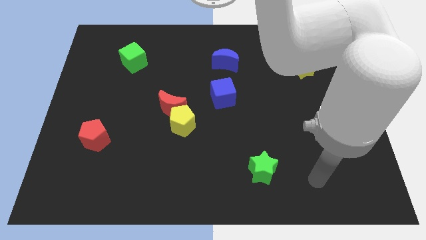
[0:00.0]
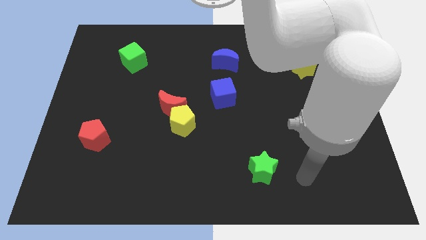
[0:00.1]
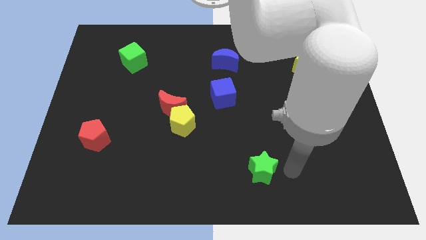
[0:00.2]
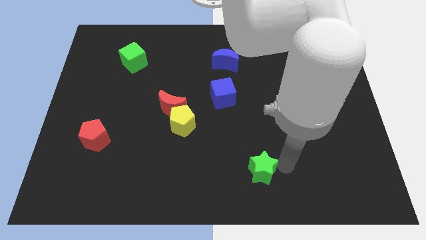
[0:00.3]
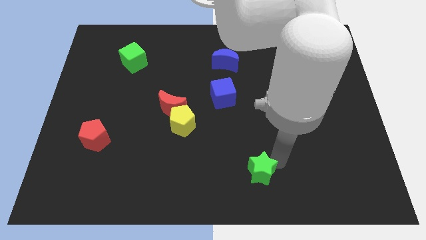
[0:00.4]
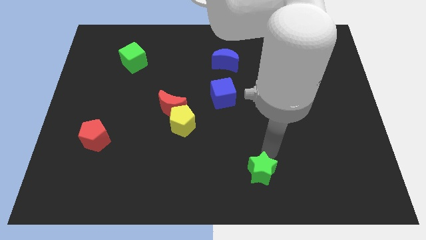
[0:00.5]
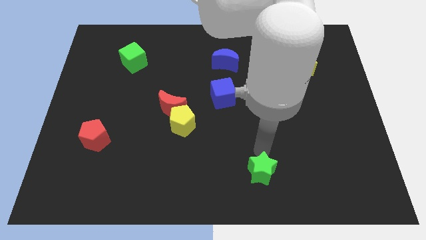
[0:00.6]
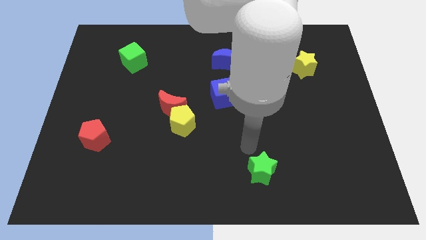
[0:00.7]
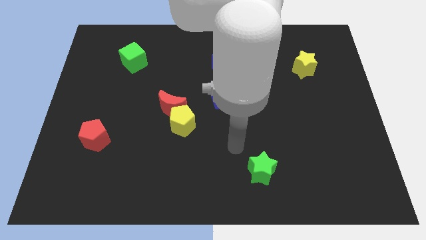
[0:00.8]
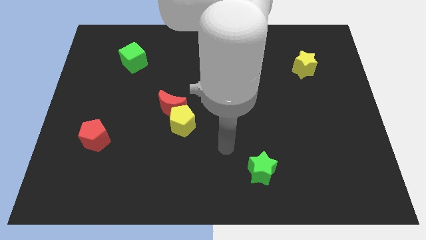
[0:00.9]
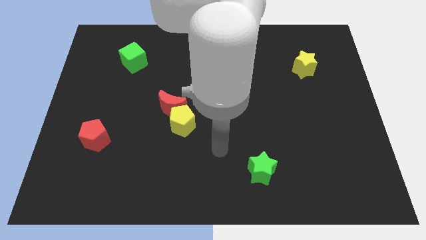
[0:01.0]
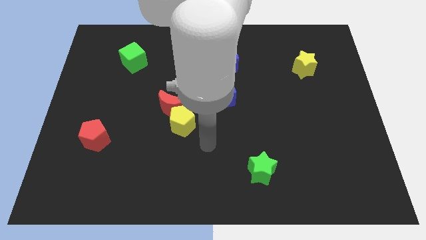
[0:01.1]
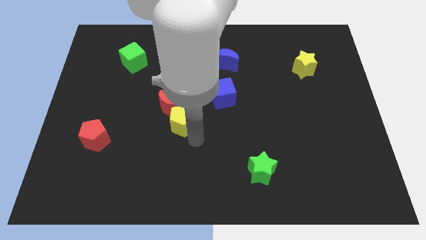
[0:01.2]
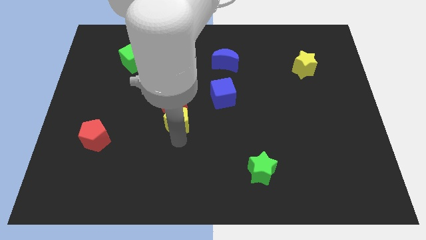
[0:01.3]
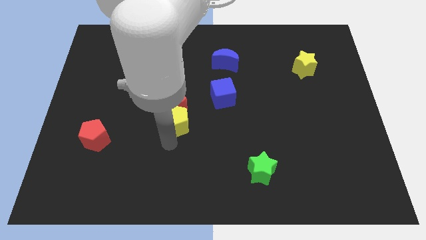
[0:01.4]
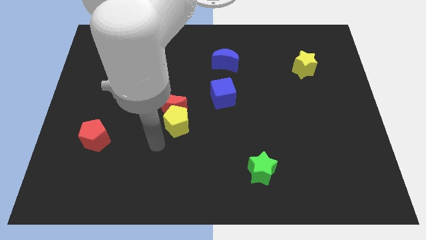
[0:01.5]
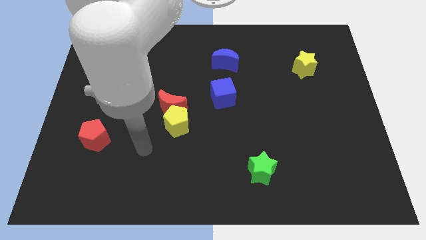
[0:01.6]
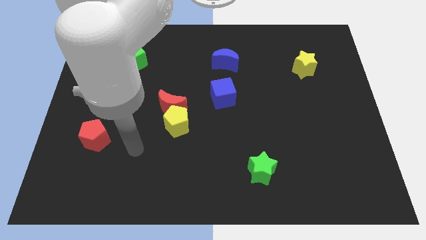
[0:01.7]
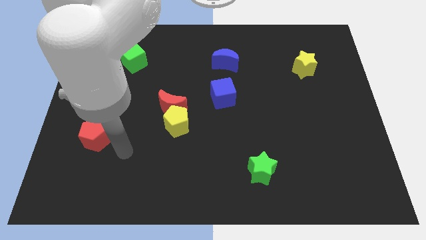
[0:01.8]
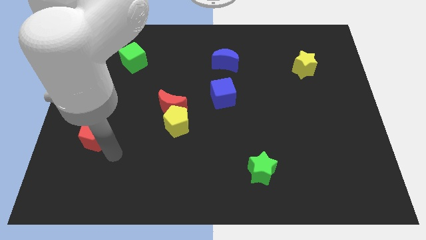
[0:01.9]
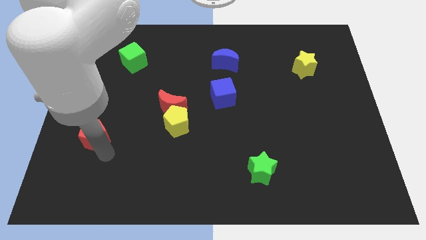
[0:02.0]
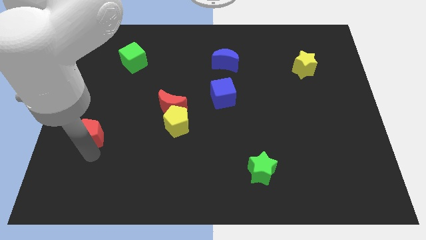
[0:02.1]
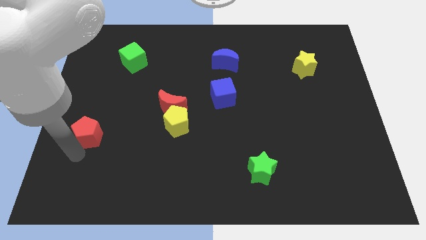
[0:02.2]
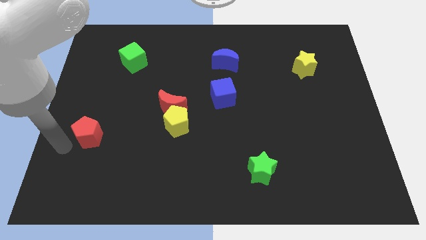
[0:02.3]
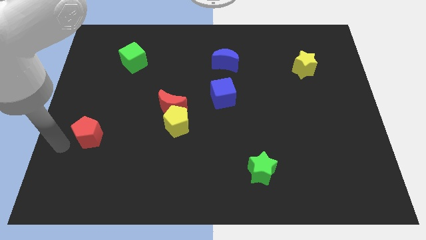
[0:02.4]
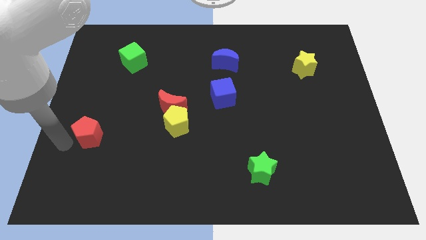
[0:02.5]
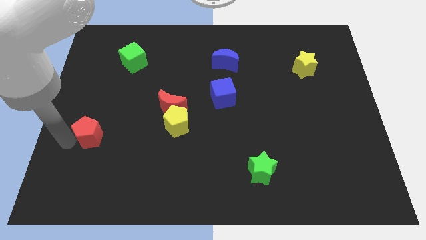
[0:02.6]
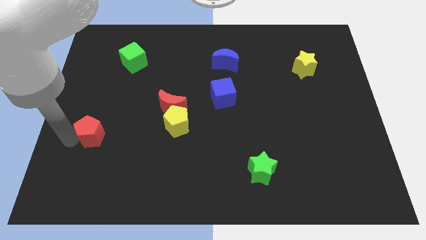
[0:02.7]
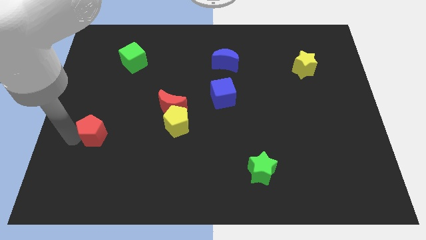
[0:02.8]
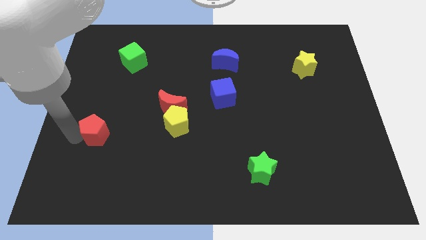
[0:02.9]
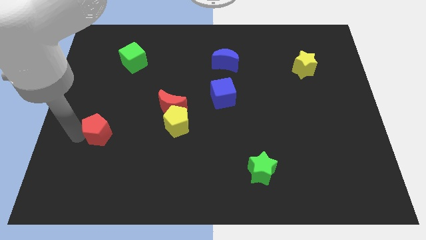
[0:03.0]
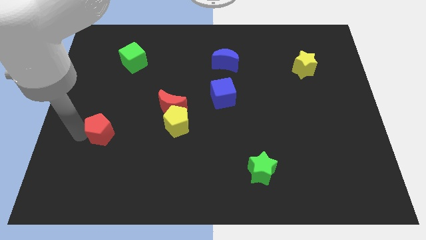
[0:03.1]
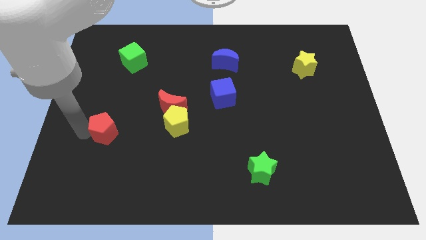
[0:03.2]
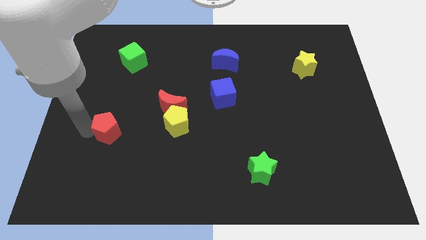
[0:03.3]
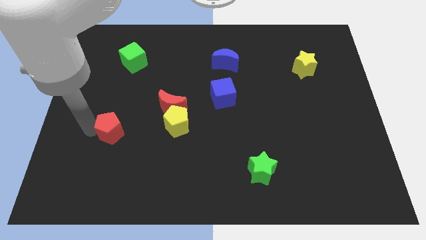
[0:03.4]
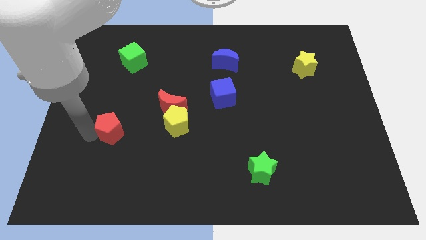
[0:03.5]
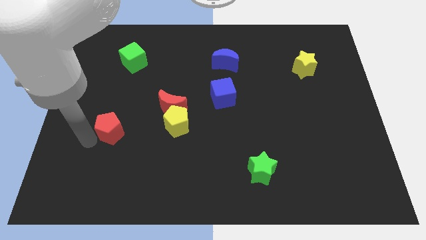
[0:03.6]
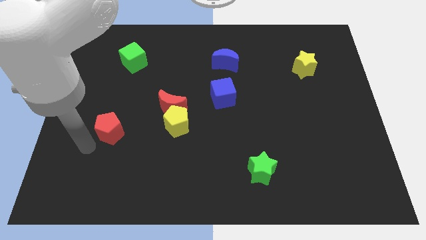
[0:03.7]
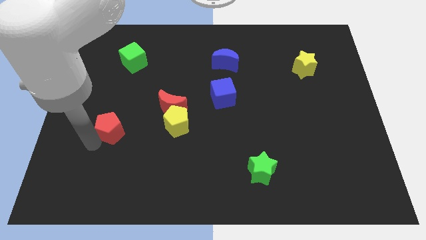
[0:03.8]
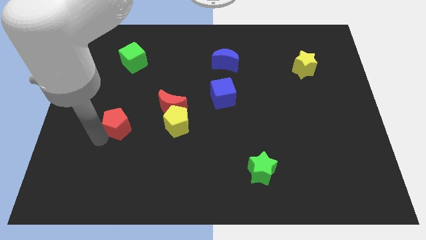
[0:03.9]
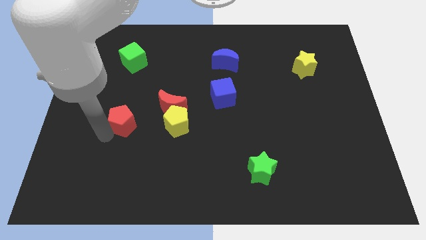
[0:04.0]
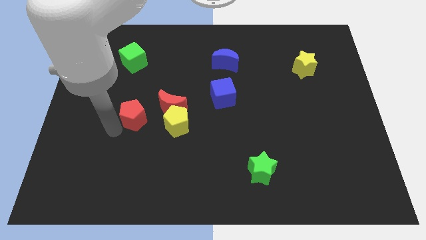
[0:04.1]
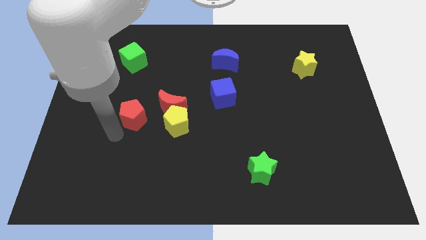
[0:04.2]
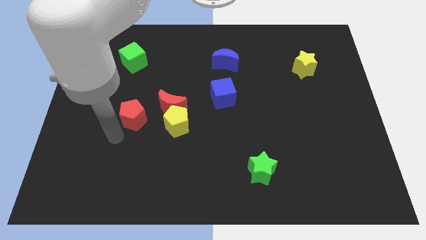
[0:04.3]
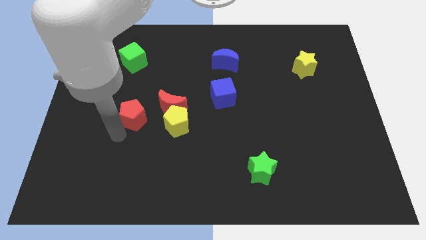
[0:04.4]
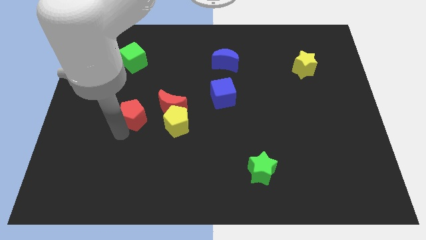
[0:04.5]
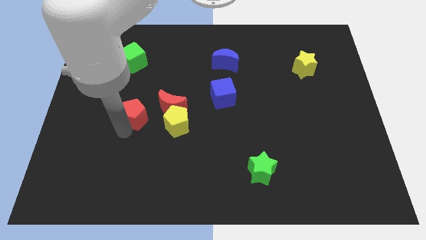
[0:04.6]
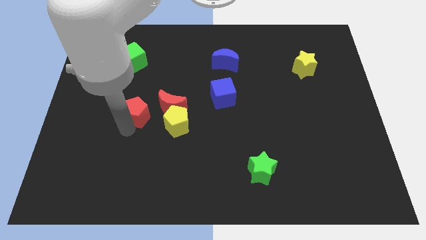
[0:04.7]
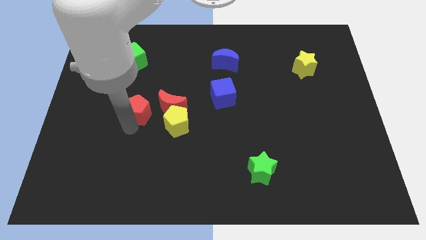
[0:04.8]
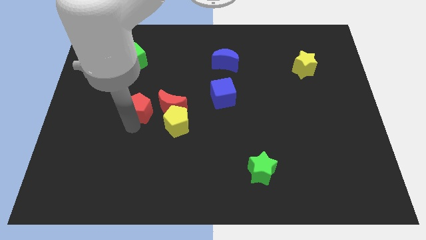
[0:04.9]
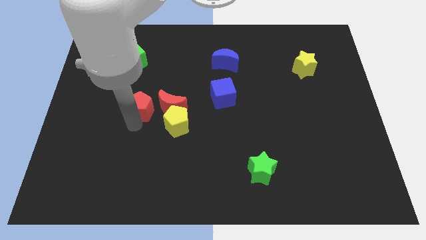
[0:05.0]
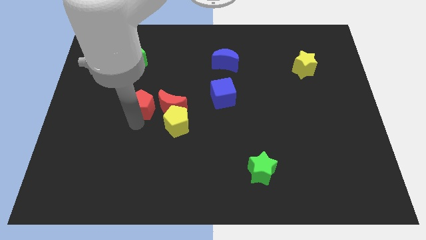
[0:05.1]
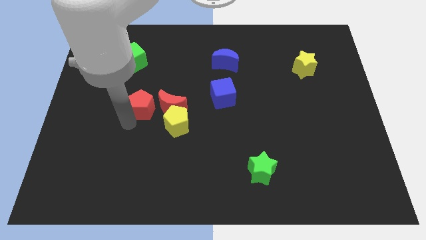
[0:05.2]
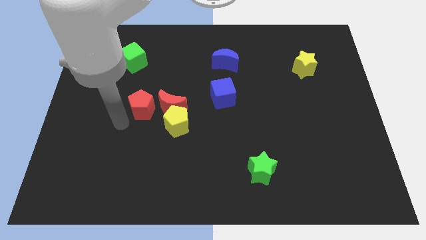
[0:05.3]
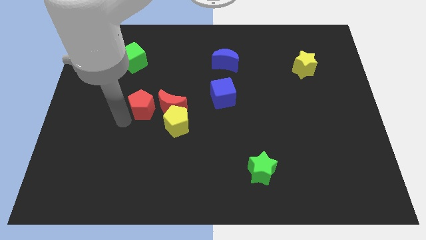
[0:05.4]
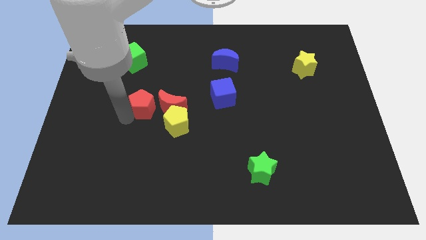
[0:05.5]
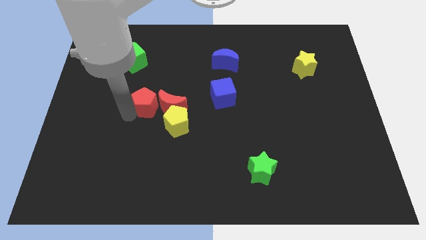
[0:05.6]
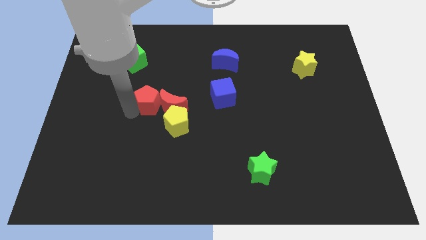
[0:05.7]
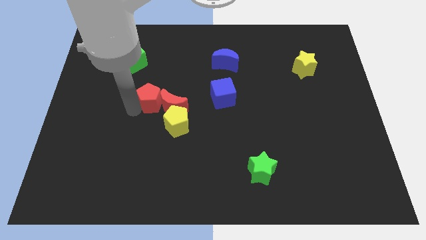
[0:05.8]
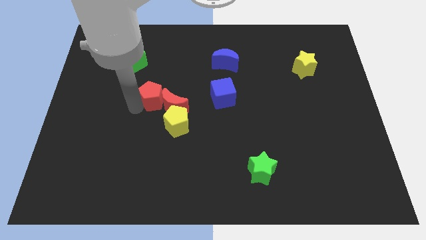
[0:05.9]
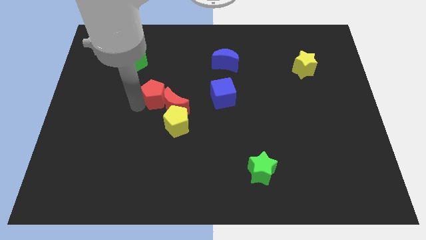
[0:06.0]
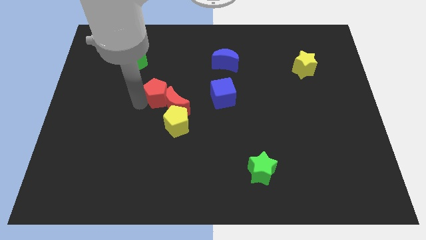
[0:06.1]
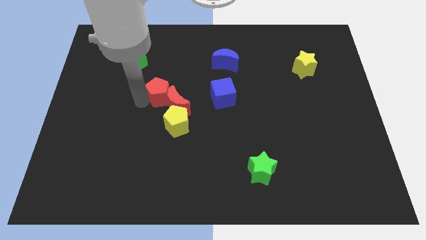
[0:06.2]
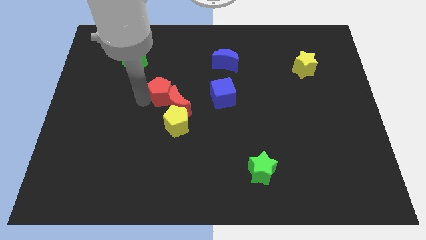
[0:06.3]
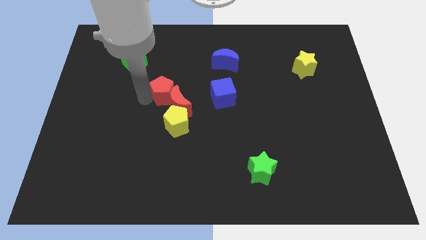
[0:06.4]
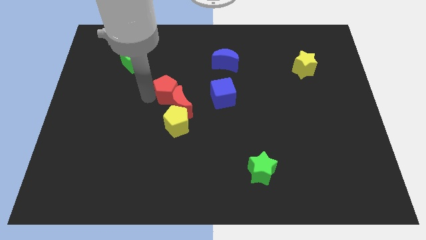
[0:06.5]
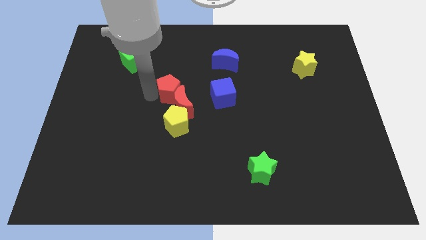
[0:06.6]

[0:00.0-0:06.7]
slide the red pentagon diagonally up and to the right

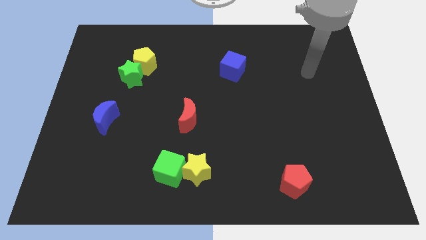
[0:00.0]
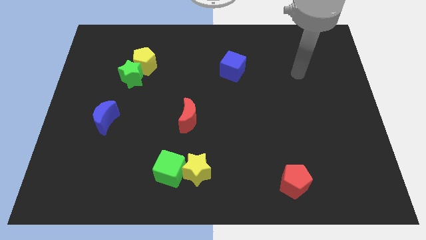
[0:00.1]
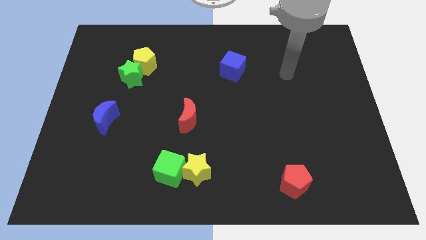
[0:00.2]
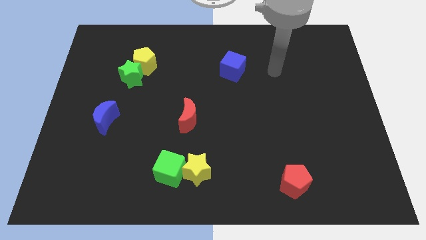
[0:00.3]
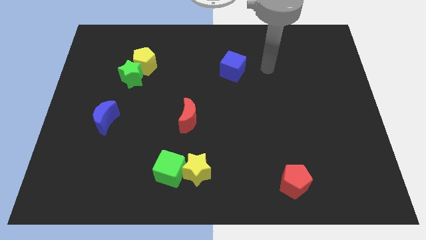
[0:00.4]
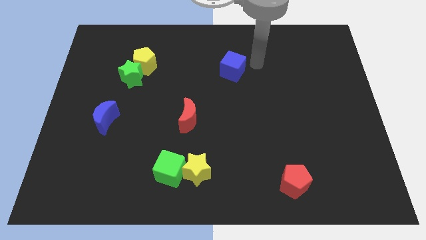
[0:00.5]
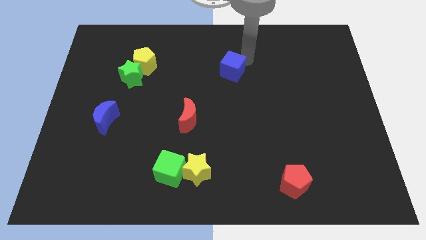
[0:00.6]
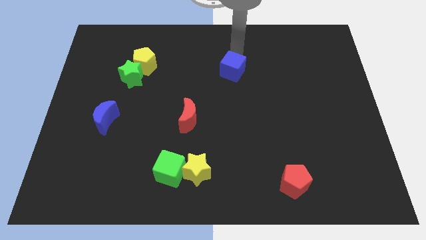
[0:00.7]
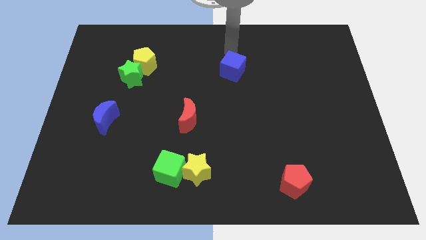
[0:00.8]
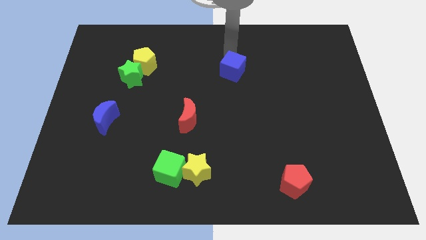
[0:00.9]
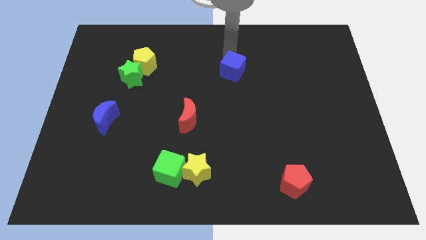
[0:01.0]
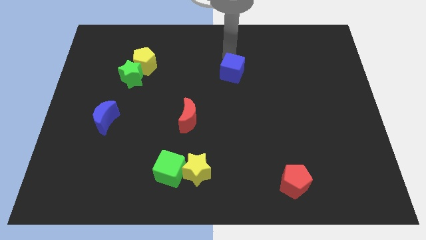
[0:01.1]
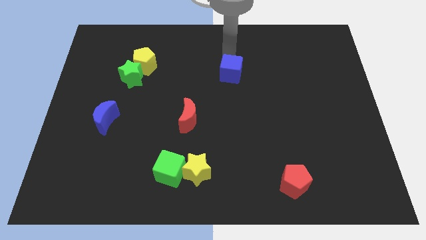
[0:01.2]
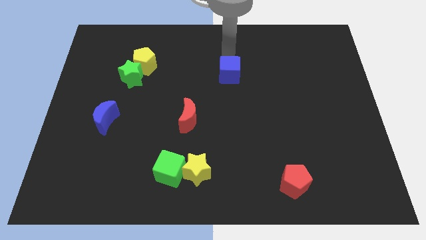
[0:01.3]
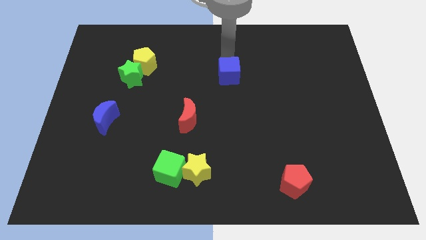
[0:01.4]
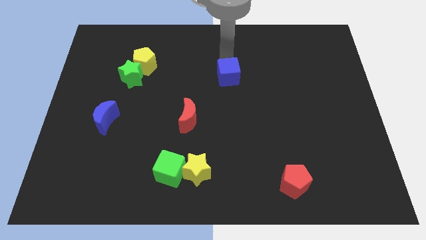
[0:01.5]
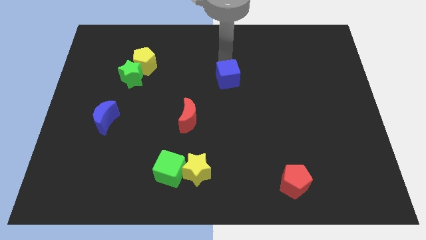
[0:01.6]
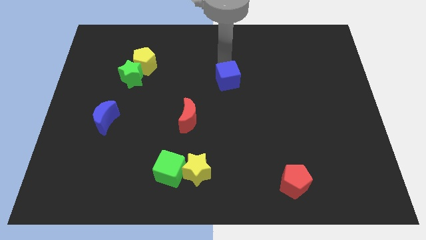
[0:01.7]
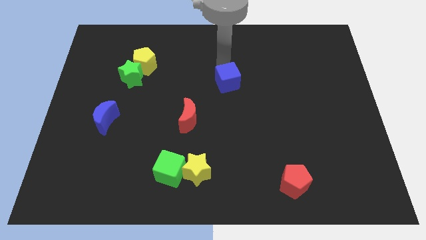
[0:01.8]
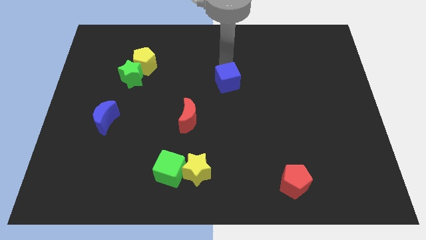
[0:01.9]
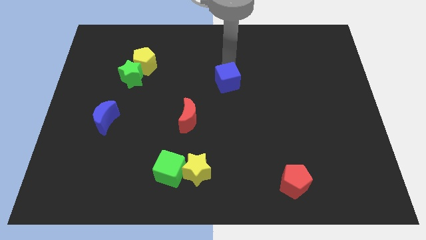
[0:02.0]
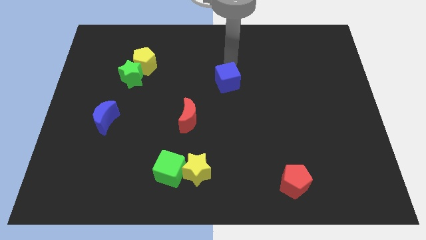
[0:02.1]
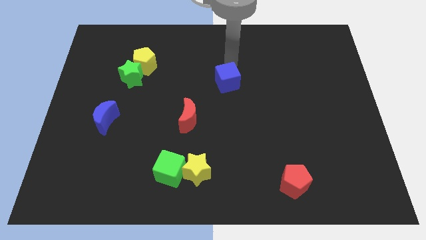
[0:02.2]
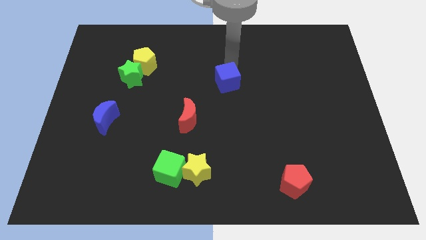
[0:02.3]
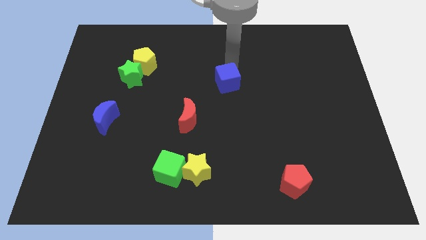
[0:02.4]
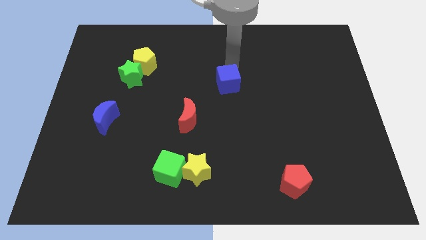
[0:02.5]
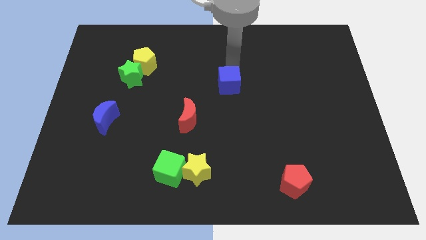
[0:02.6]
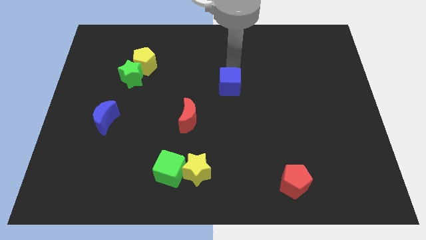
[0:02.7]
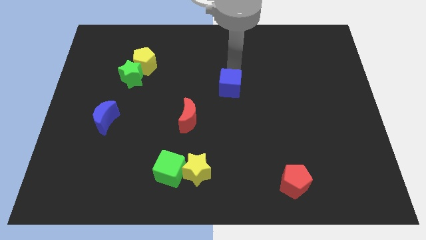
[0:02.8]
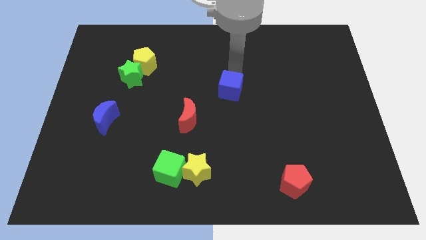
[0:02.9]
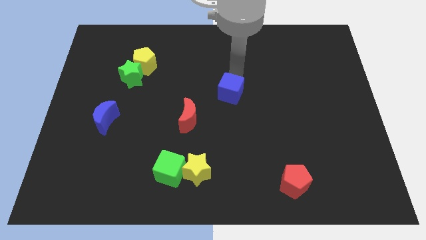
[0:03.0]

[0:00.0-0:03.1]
move the blue cube down somewhat
